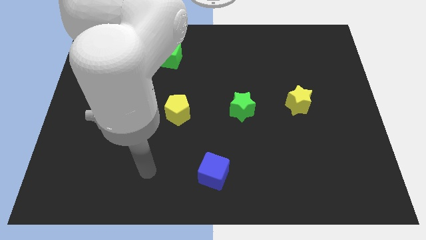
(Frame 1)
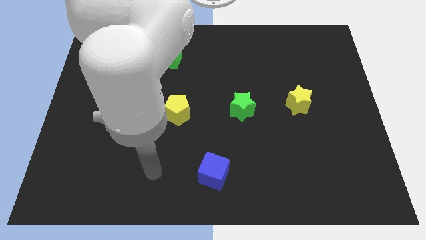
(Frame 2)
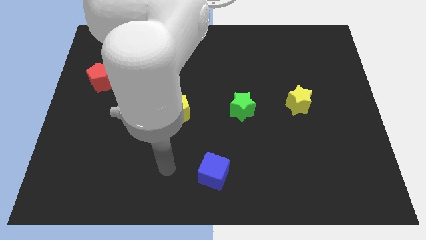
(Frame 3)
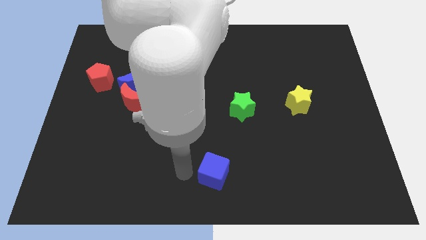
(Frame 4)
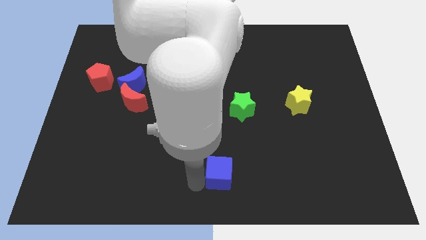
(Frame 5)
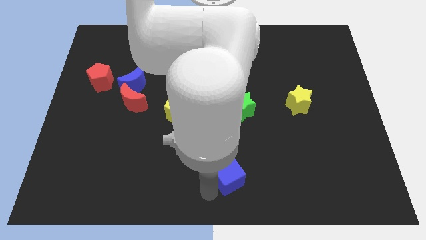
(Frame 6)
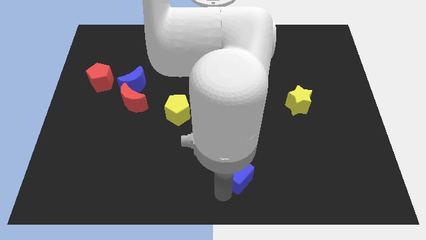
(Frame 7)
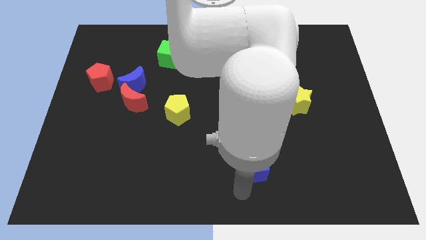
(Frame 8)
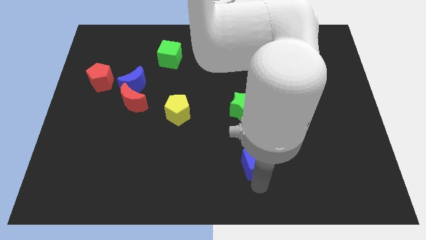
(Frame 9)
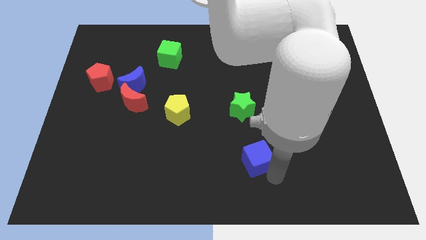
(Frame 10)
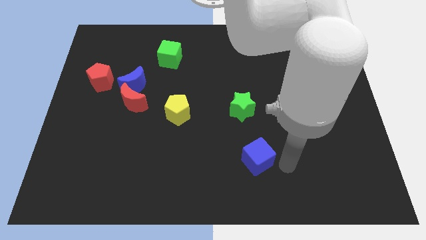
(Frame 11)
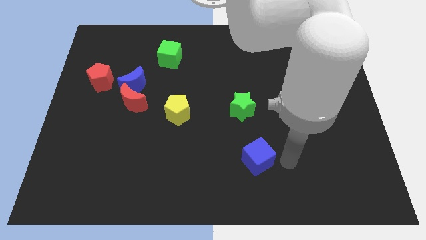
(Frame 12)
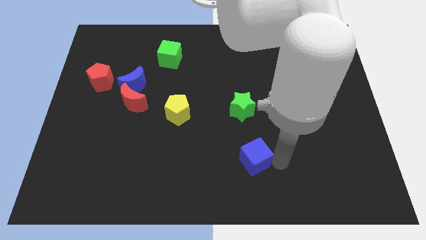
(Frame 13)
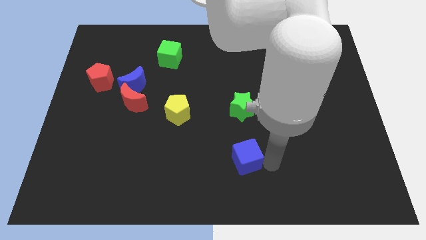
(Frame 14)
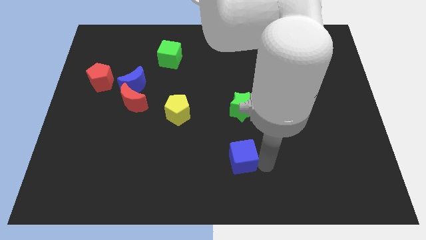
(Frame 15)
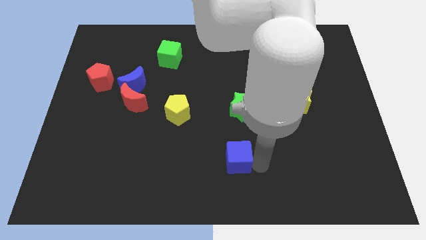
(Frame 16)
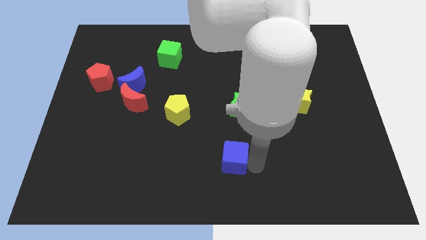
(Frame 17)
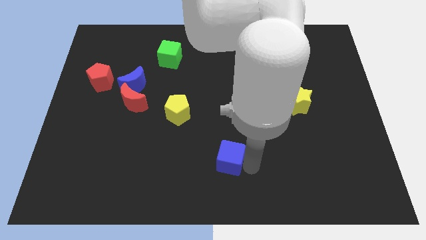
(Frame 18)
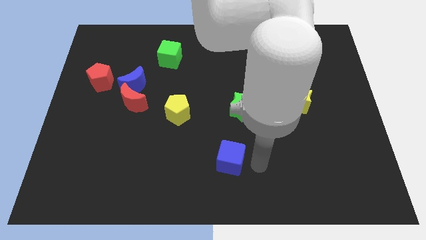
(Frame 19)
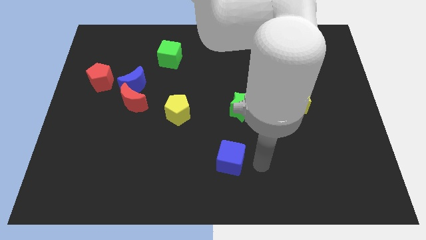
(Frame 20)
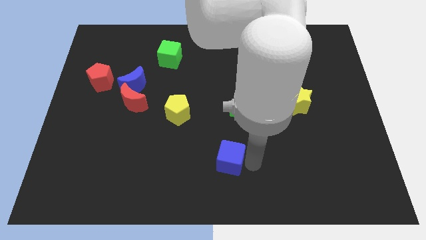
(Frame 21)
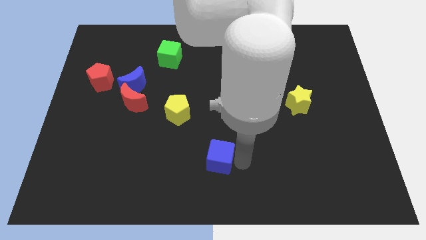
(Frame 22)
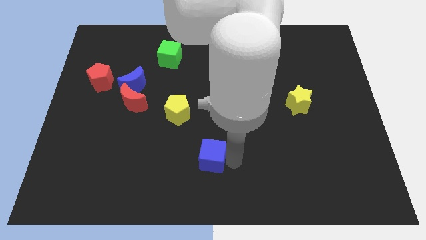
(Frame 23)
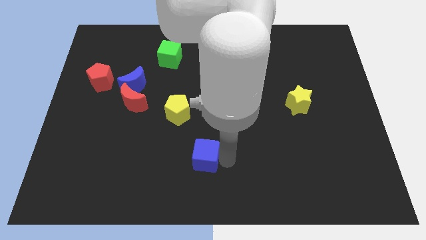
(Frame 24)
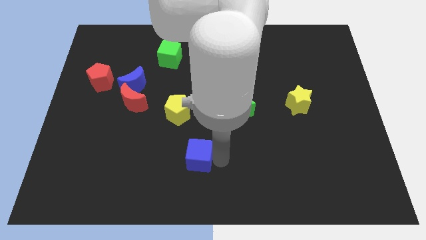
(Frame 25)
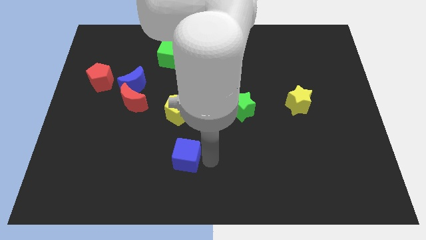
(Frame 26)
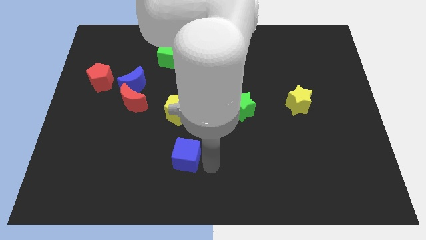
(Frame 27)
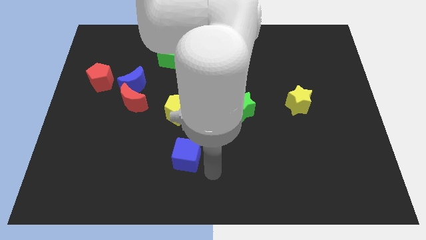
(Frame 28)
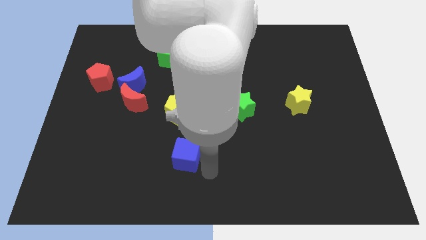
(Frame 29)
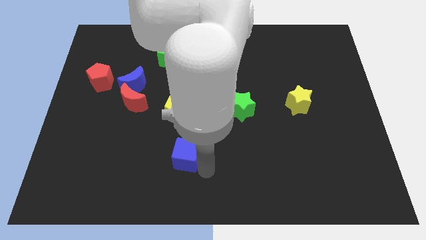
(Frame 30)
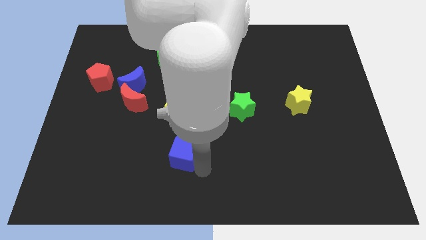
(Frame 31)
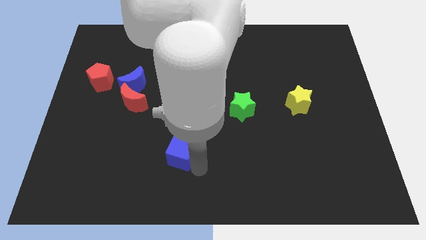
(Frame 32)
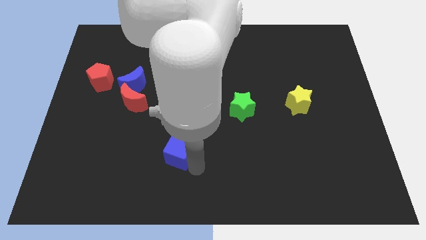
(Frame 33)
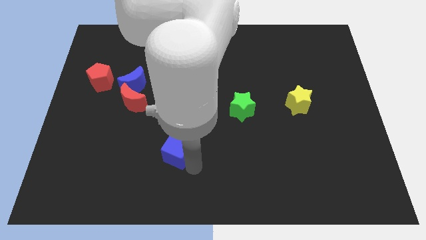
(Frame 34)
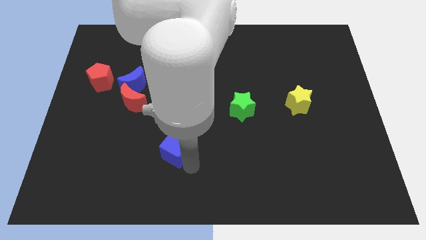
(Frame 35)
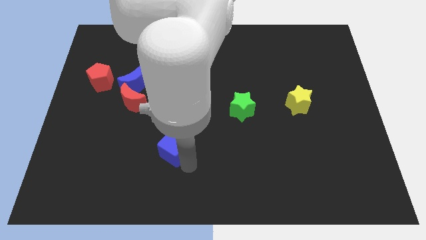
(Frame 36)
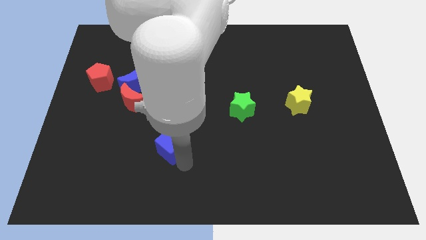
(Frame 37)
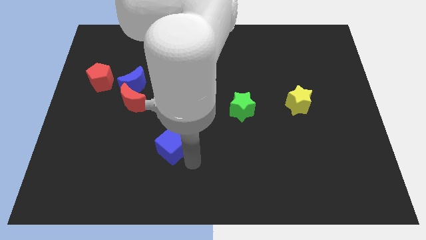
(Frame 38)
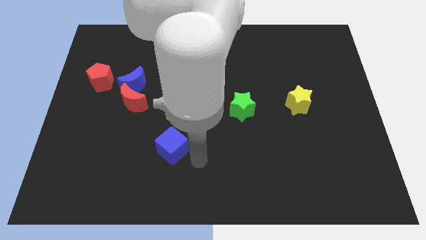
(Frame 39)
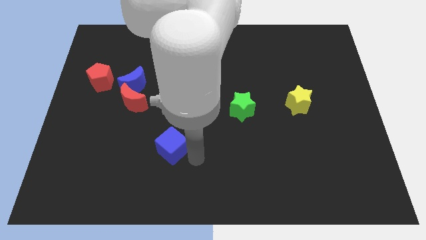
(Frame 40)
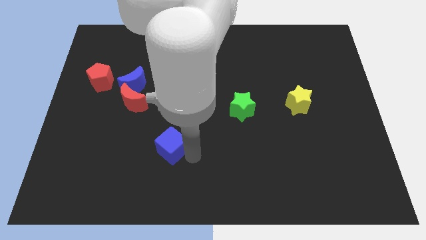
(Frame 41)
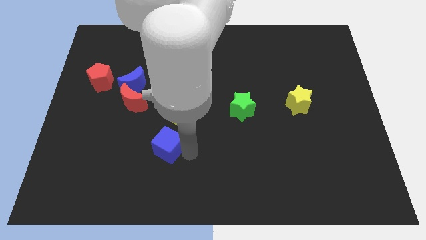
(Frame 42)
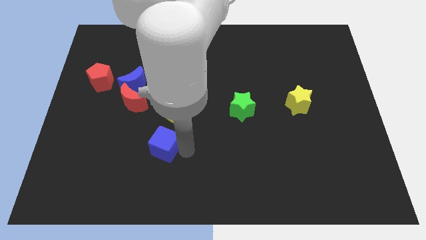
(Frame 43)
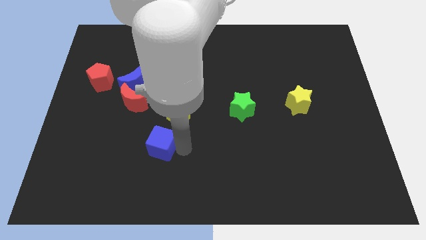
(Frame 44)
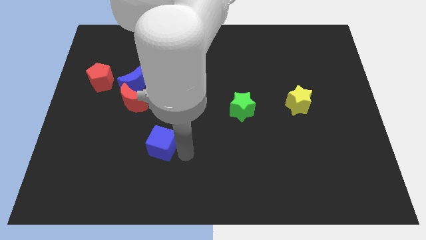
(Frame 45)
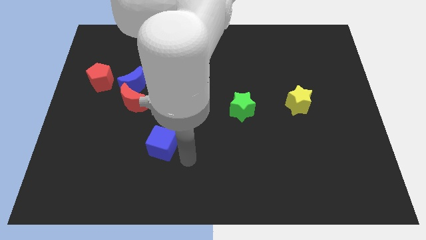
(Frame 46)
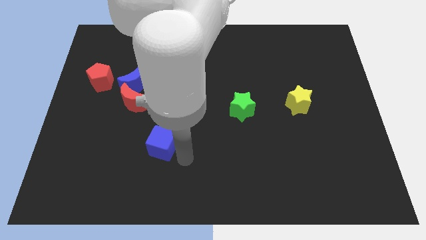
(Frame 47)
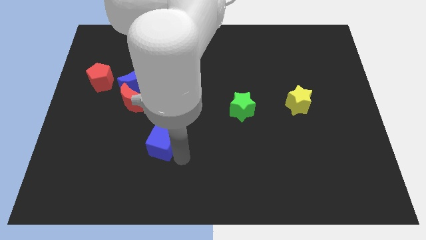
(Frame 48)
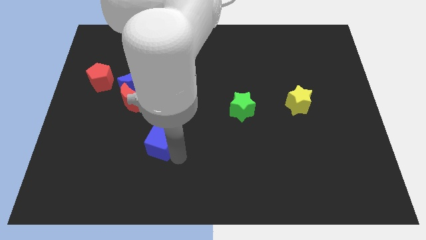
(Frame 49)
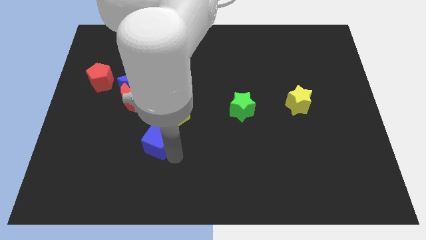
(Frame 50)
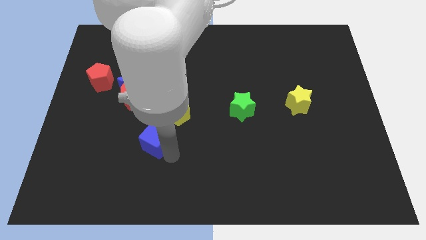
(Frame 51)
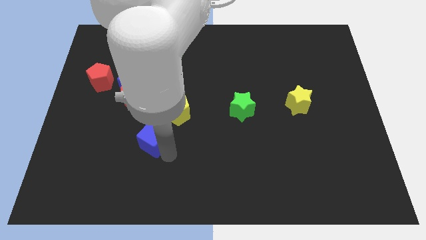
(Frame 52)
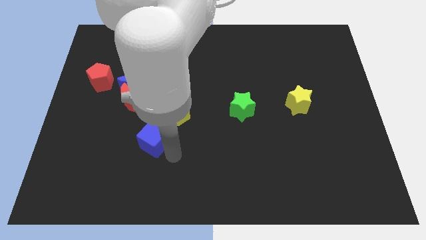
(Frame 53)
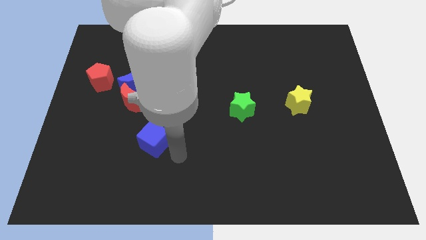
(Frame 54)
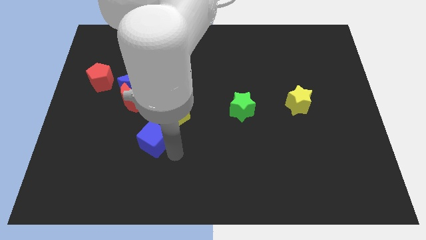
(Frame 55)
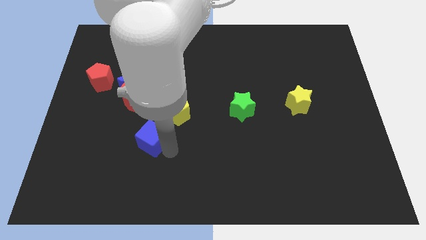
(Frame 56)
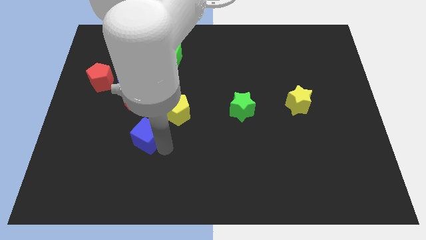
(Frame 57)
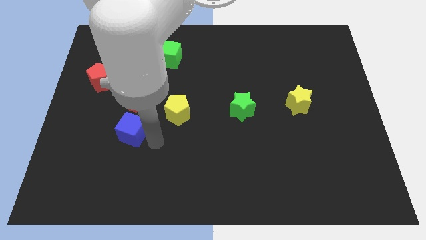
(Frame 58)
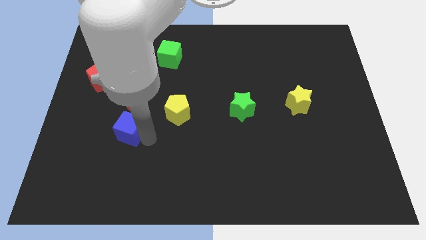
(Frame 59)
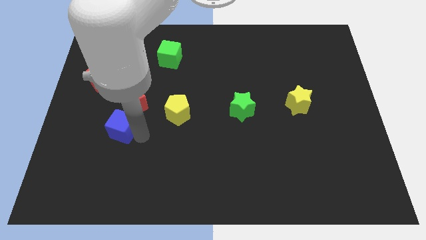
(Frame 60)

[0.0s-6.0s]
push the blue cube to the bottom left of the red moon
